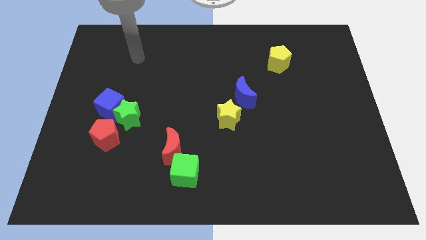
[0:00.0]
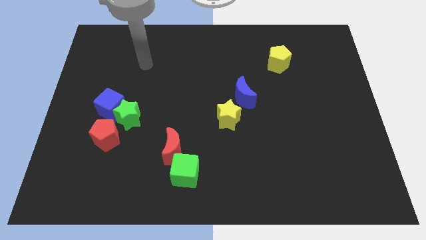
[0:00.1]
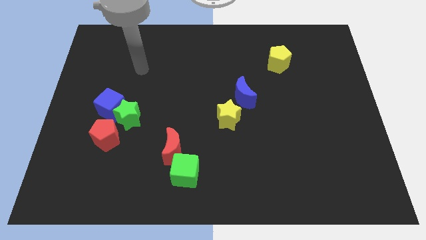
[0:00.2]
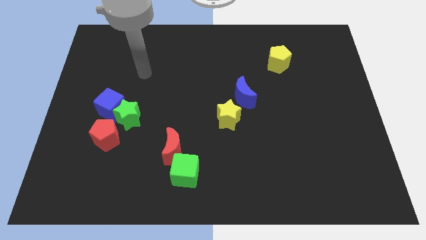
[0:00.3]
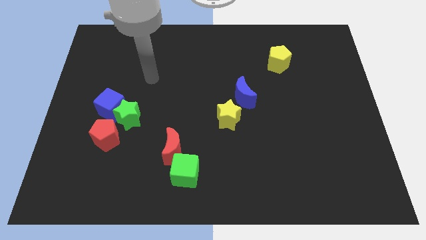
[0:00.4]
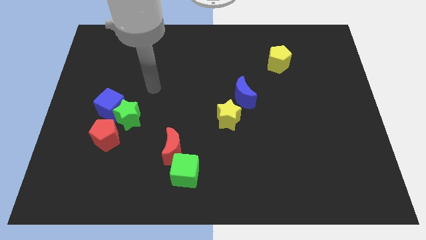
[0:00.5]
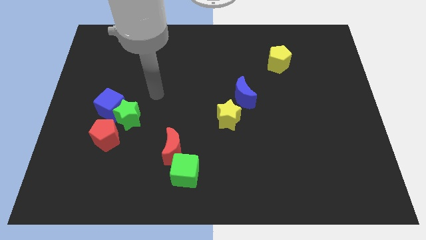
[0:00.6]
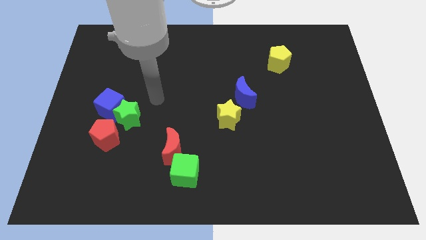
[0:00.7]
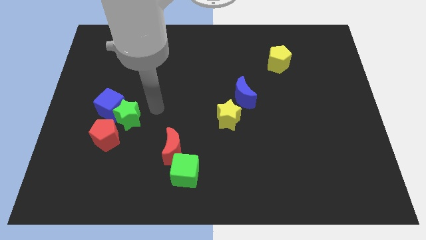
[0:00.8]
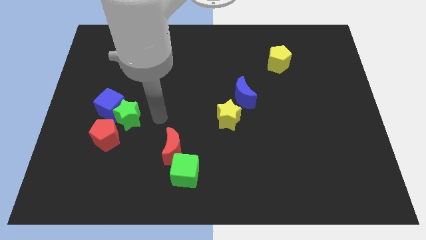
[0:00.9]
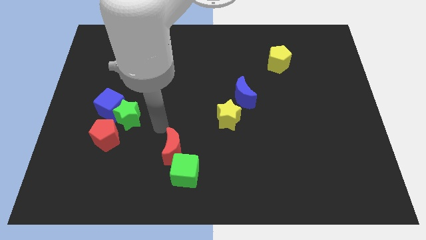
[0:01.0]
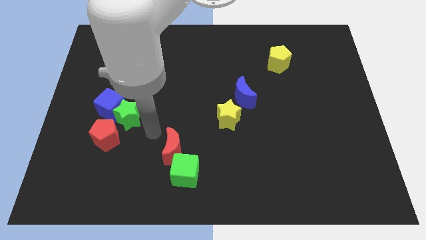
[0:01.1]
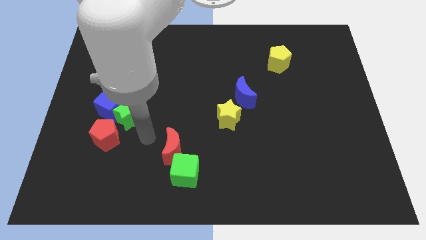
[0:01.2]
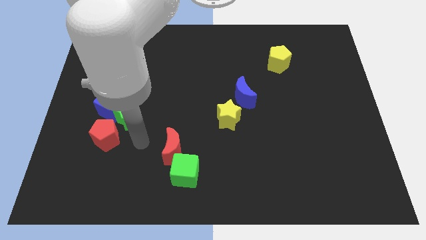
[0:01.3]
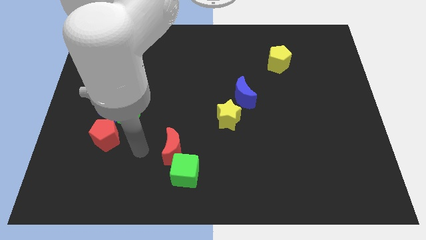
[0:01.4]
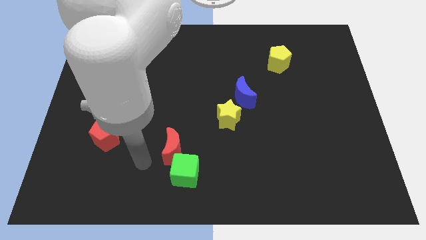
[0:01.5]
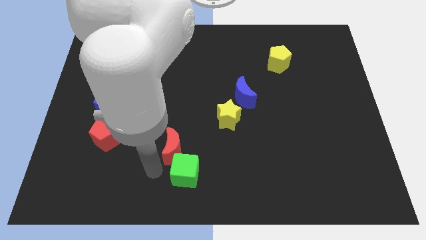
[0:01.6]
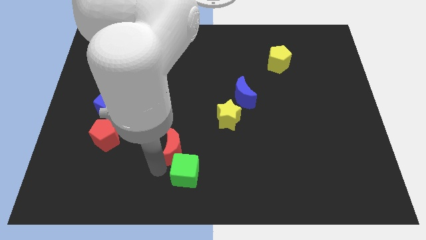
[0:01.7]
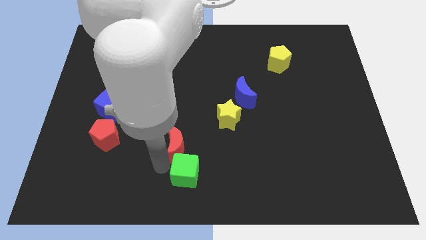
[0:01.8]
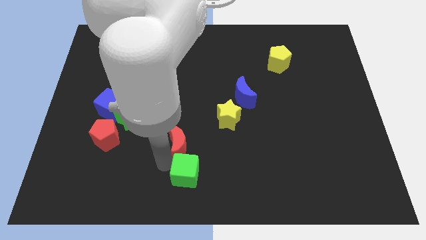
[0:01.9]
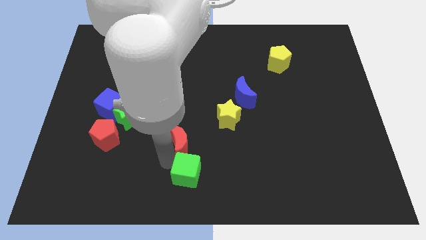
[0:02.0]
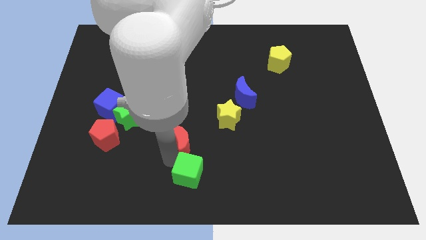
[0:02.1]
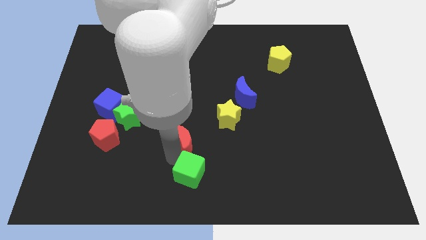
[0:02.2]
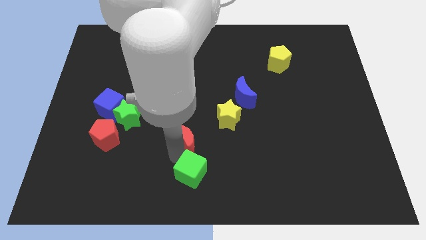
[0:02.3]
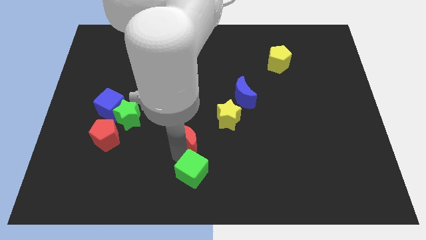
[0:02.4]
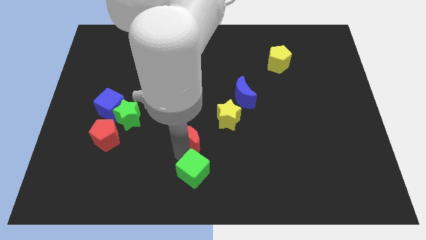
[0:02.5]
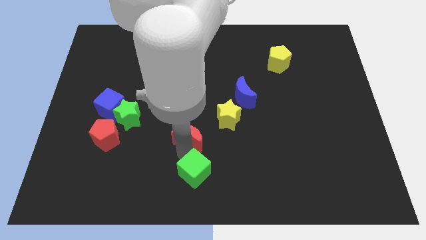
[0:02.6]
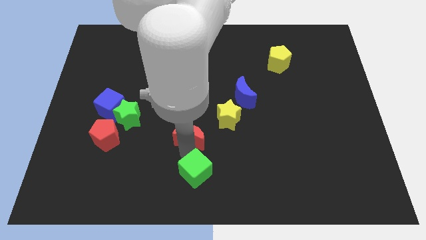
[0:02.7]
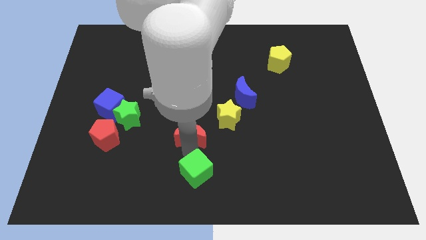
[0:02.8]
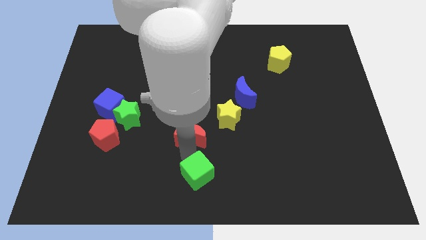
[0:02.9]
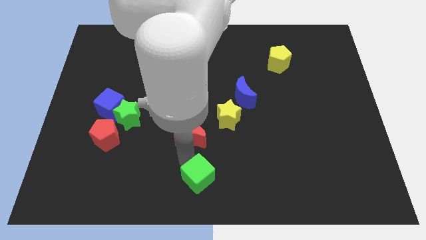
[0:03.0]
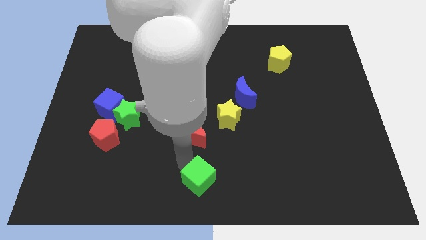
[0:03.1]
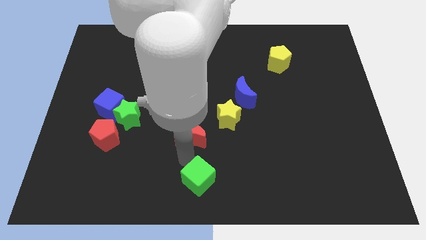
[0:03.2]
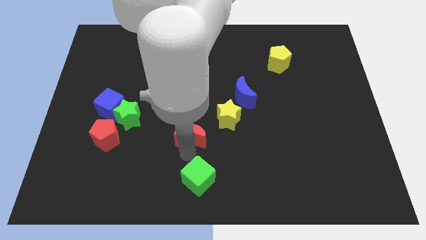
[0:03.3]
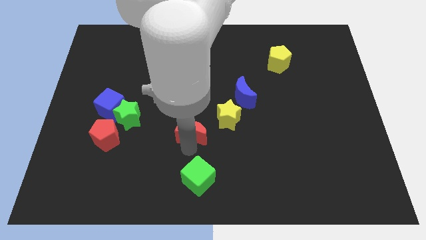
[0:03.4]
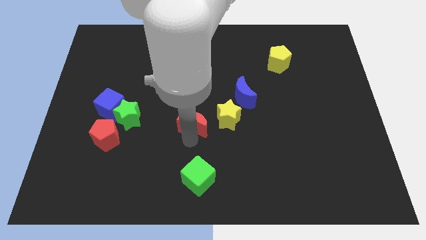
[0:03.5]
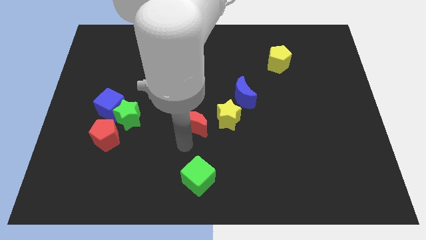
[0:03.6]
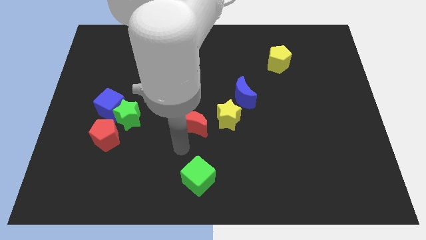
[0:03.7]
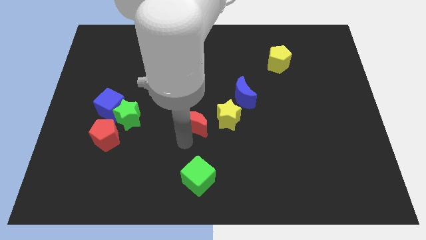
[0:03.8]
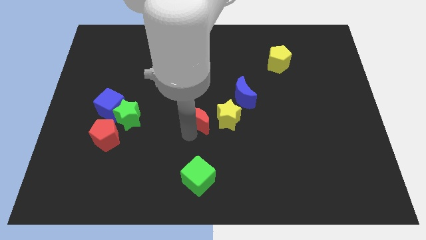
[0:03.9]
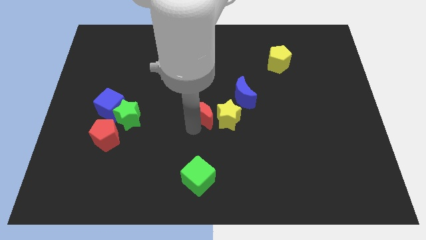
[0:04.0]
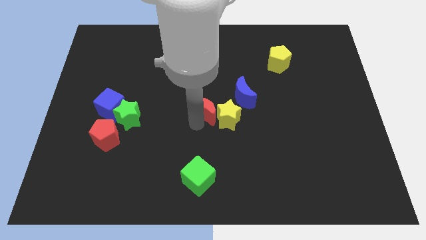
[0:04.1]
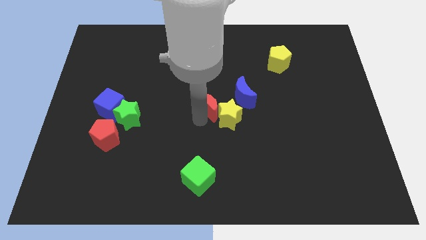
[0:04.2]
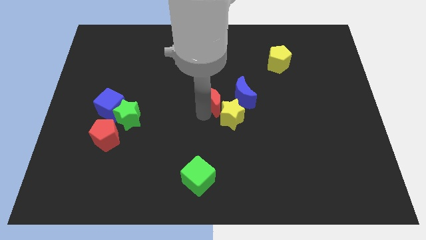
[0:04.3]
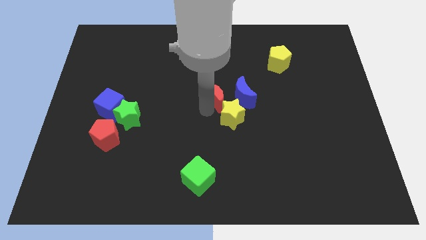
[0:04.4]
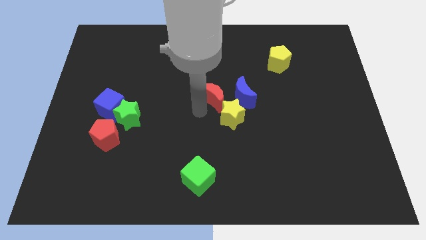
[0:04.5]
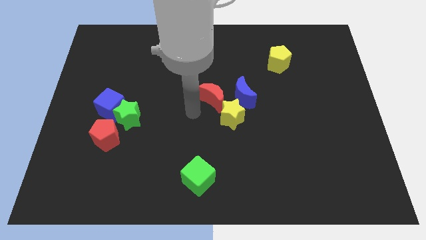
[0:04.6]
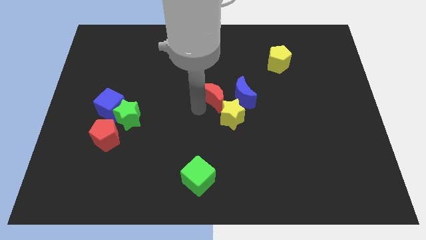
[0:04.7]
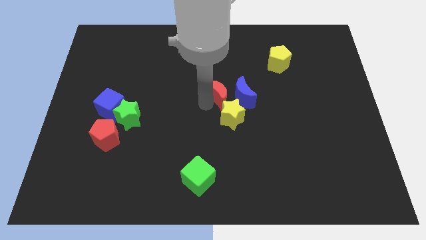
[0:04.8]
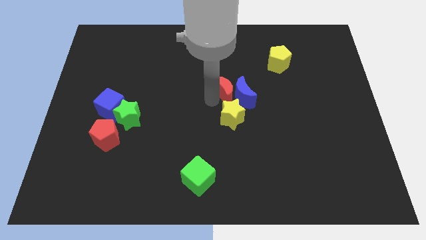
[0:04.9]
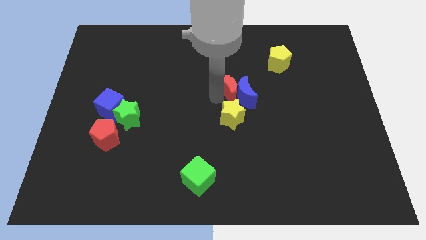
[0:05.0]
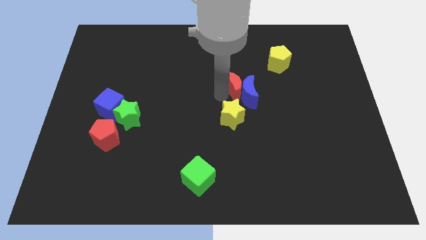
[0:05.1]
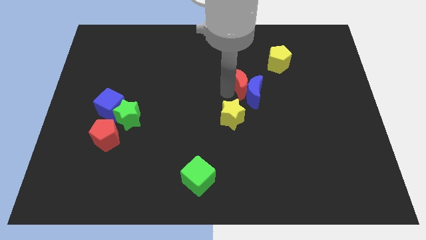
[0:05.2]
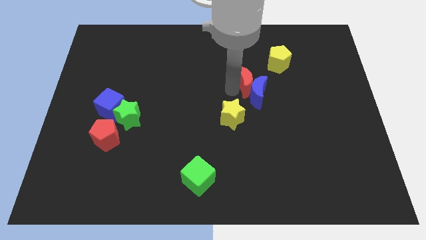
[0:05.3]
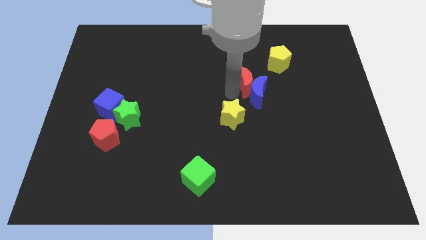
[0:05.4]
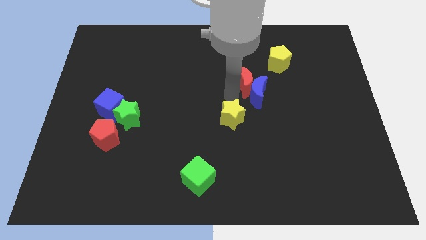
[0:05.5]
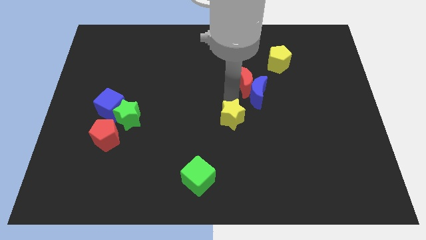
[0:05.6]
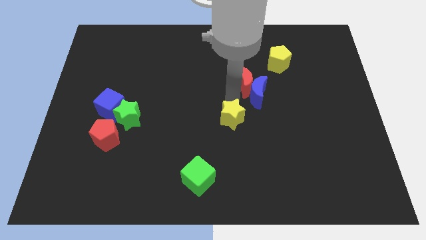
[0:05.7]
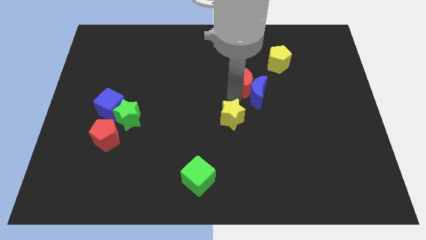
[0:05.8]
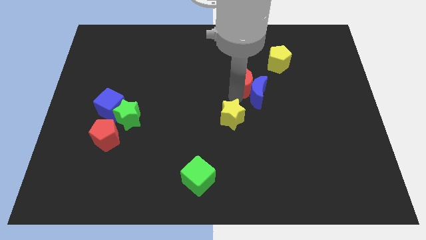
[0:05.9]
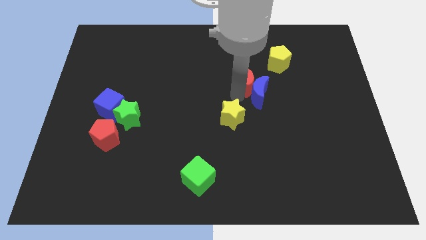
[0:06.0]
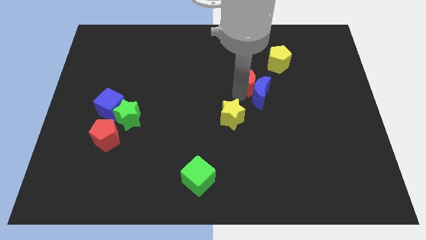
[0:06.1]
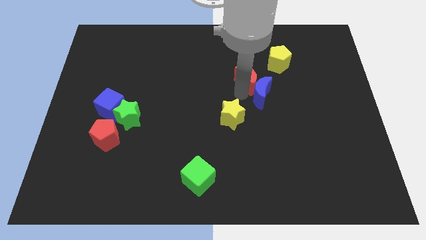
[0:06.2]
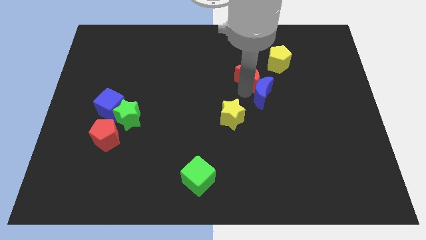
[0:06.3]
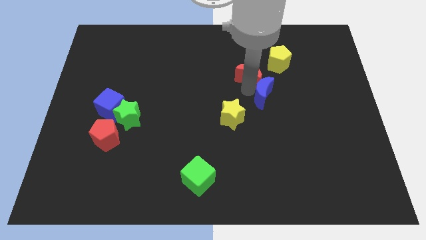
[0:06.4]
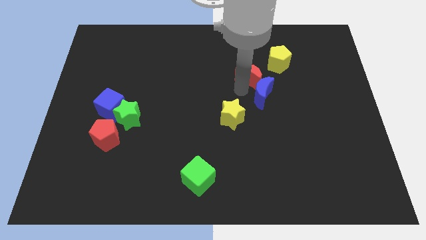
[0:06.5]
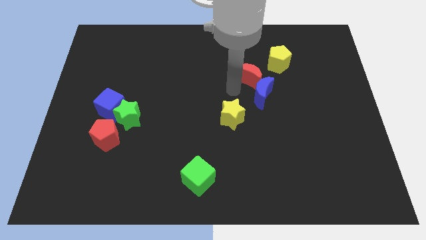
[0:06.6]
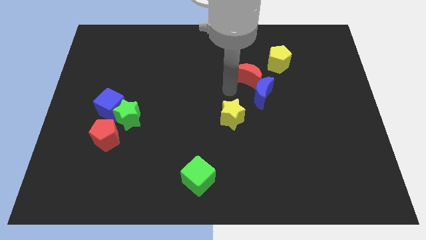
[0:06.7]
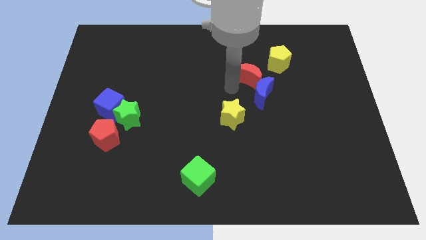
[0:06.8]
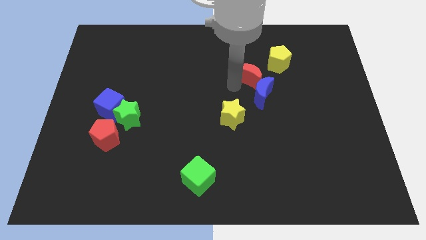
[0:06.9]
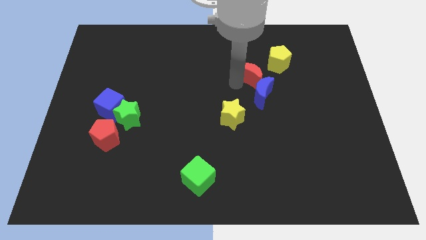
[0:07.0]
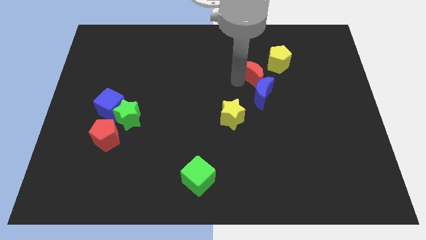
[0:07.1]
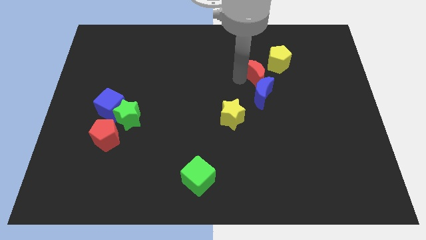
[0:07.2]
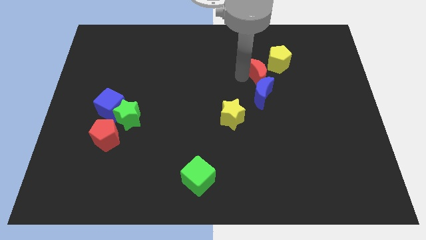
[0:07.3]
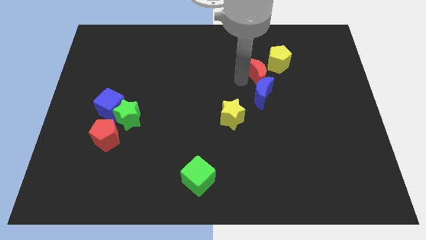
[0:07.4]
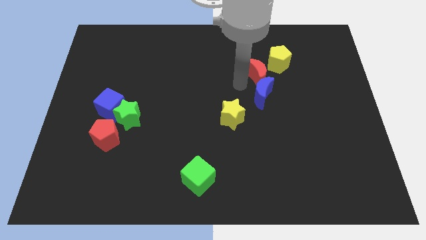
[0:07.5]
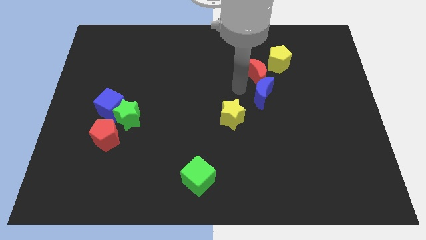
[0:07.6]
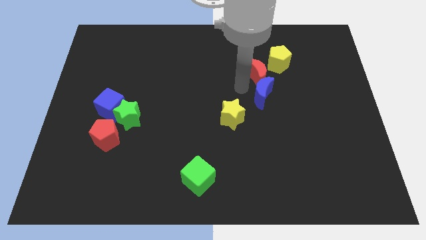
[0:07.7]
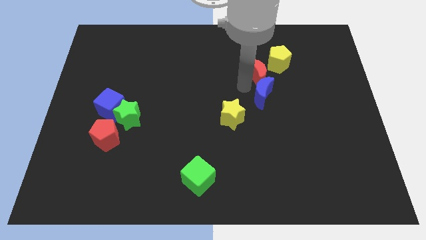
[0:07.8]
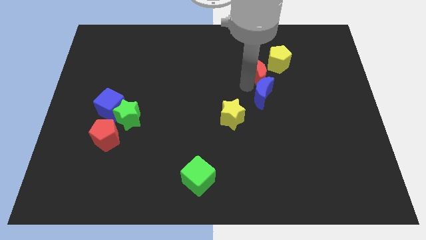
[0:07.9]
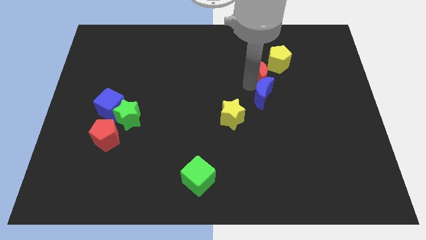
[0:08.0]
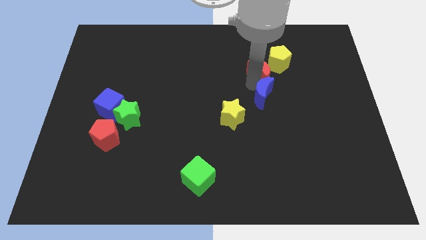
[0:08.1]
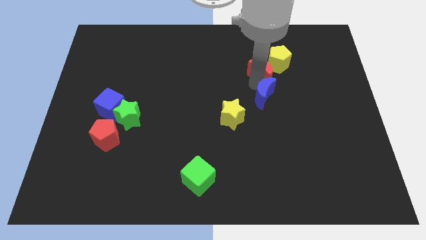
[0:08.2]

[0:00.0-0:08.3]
move the red moon towards the yellow pentagon
